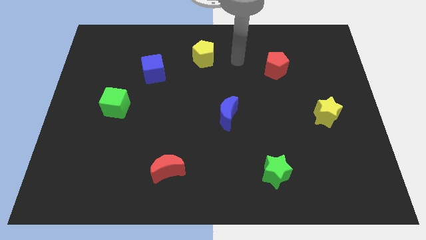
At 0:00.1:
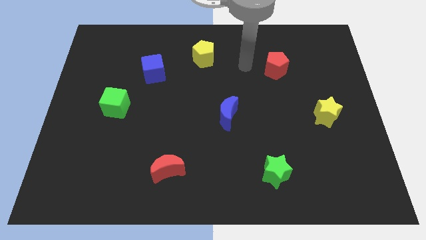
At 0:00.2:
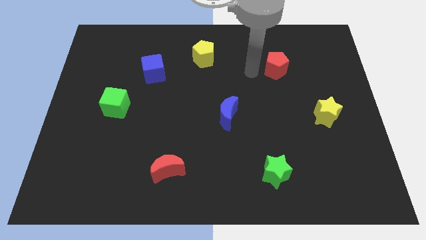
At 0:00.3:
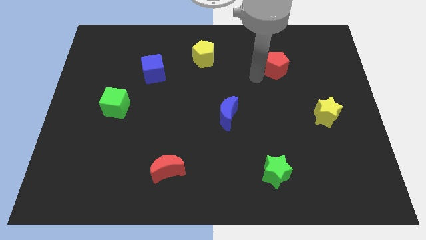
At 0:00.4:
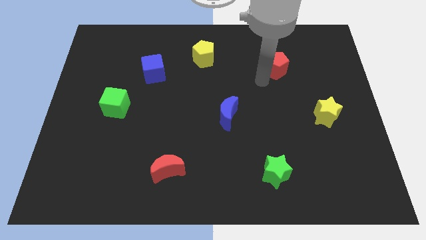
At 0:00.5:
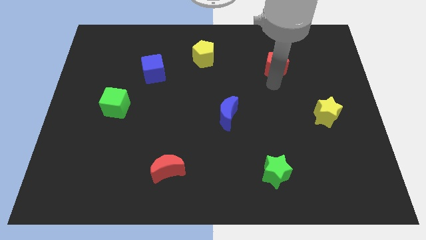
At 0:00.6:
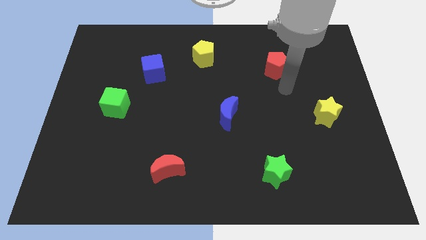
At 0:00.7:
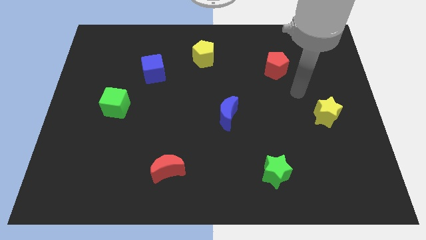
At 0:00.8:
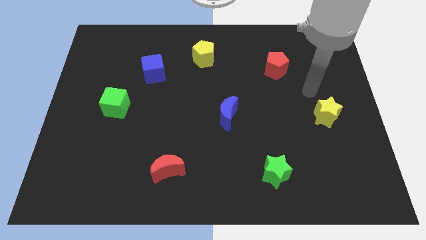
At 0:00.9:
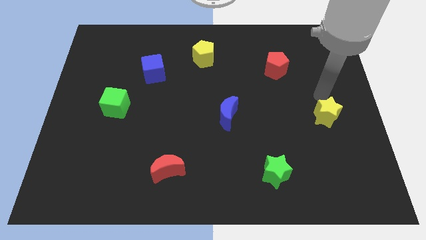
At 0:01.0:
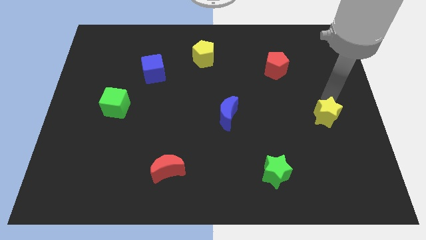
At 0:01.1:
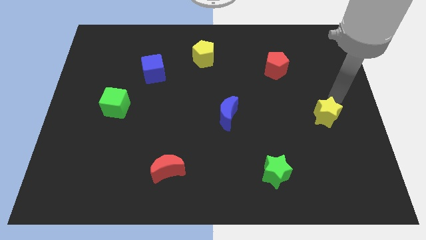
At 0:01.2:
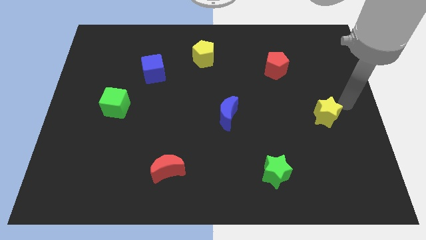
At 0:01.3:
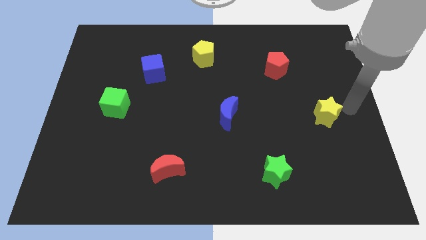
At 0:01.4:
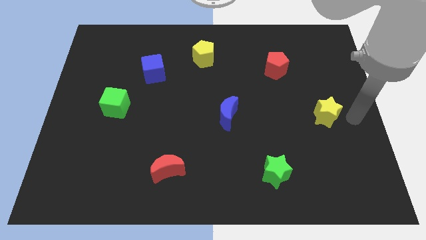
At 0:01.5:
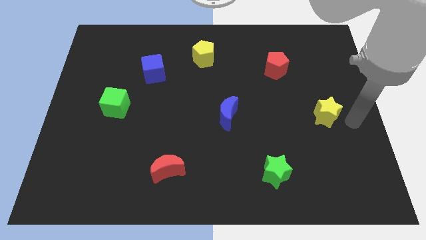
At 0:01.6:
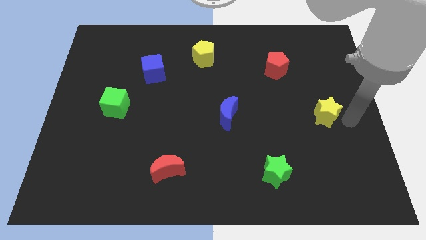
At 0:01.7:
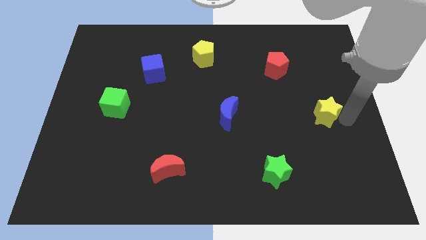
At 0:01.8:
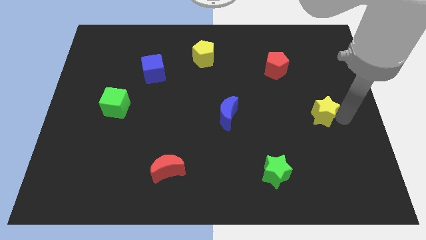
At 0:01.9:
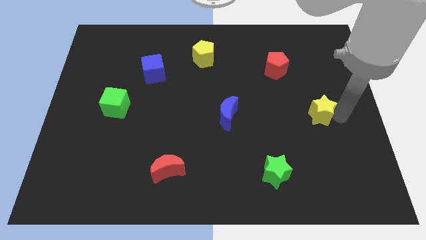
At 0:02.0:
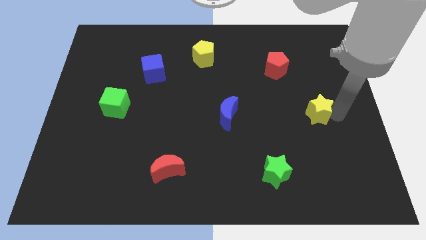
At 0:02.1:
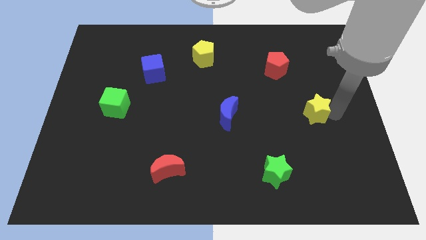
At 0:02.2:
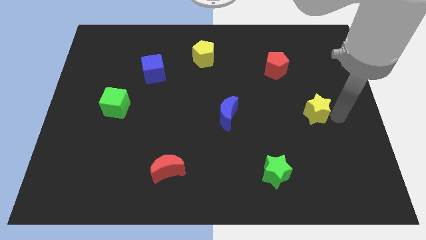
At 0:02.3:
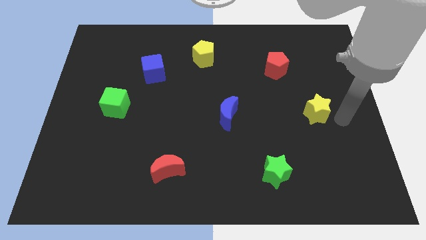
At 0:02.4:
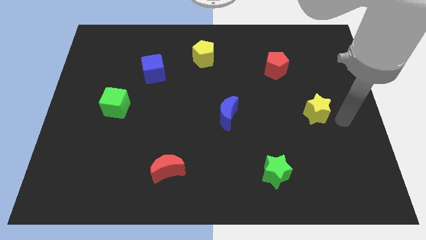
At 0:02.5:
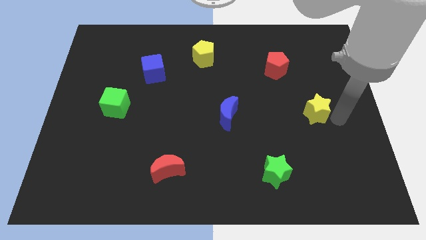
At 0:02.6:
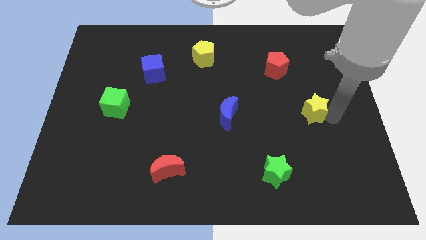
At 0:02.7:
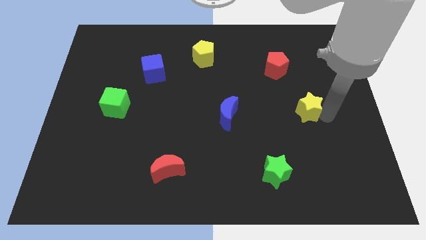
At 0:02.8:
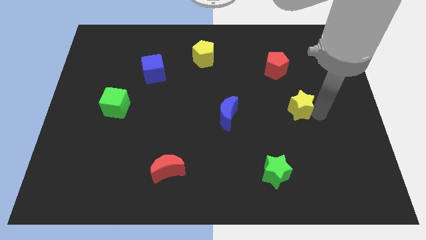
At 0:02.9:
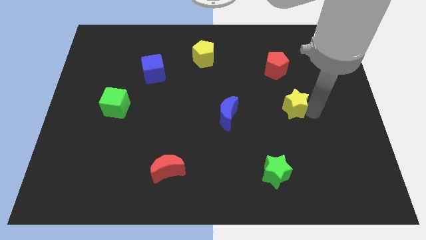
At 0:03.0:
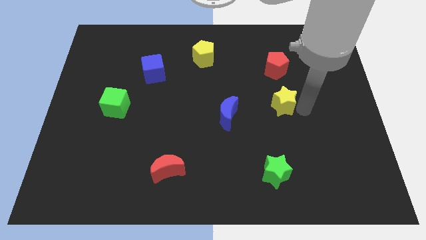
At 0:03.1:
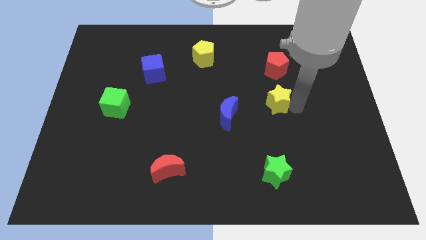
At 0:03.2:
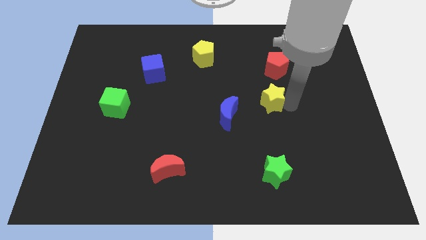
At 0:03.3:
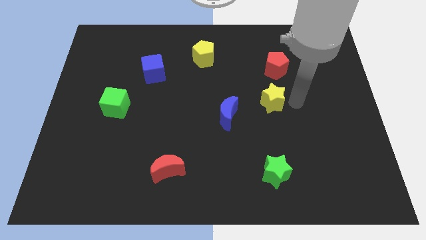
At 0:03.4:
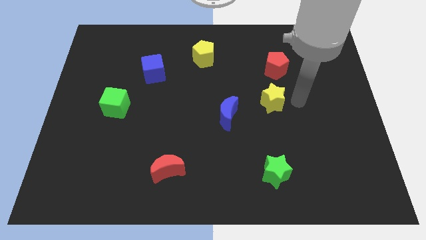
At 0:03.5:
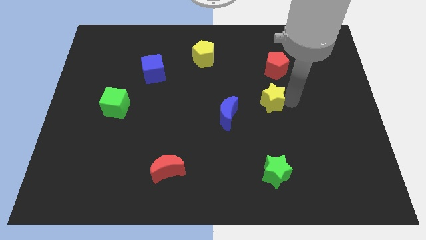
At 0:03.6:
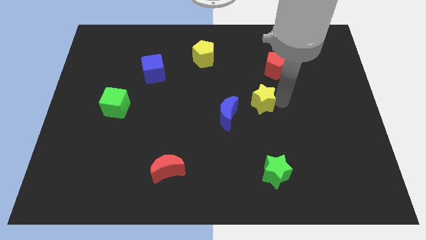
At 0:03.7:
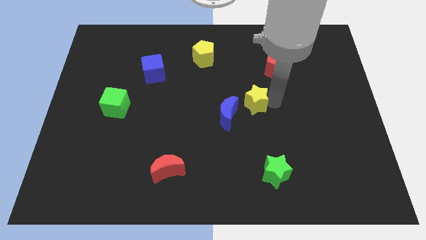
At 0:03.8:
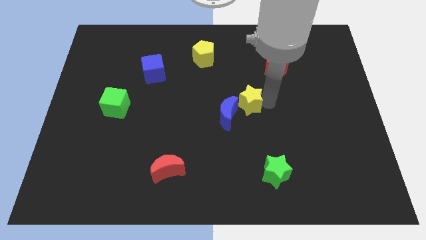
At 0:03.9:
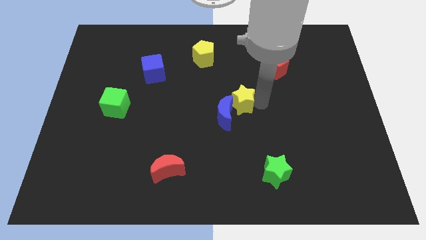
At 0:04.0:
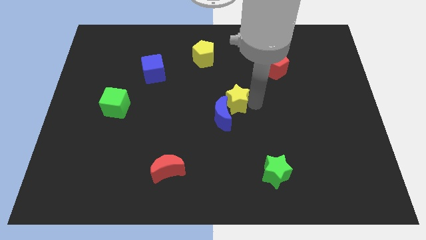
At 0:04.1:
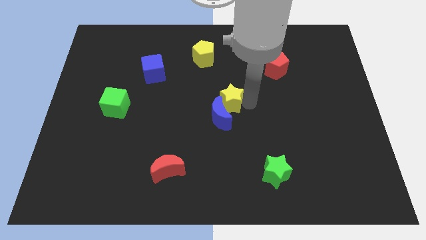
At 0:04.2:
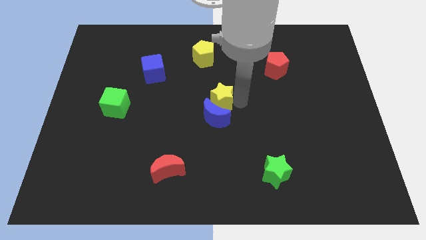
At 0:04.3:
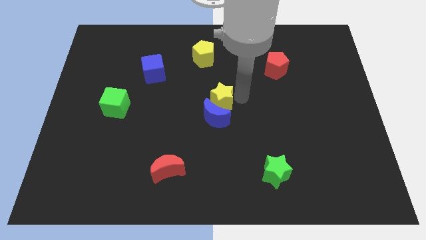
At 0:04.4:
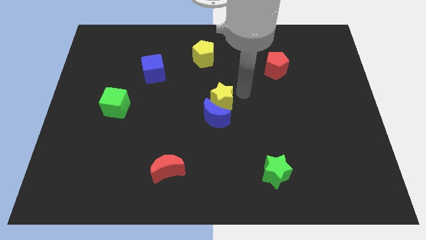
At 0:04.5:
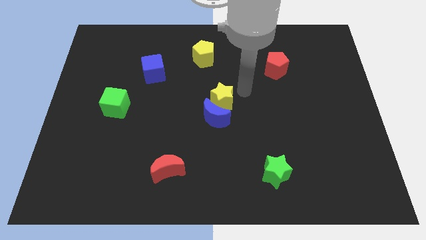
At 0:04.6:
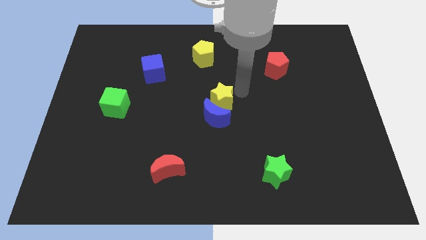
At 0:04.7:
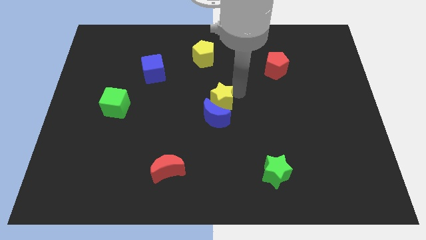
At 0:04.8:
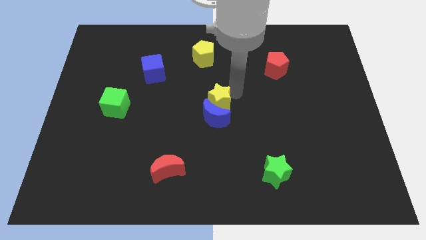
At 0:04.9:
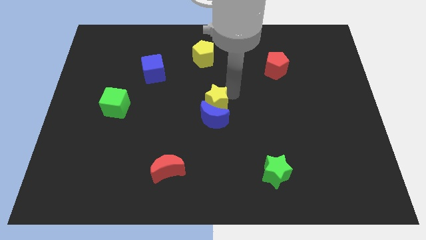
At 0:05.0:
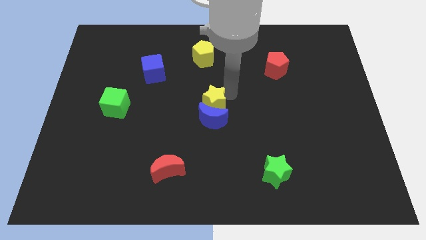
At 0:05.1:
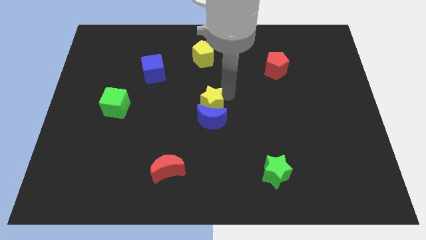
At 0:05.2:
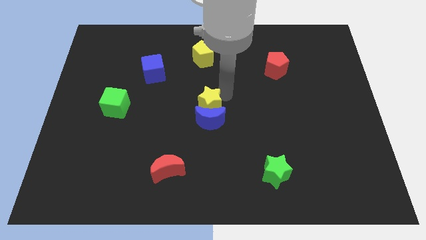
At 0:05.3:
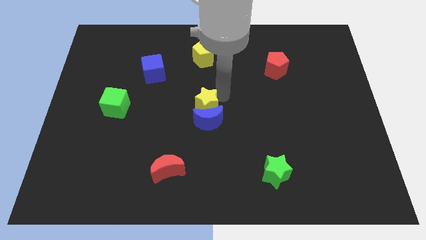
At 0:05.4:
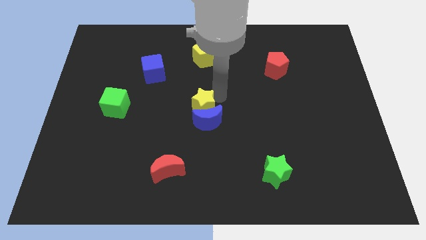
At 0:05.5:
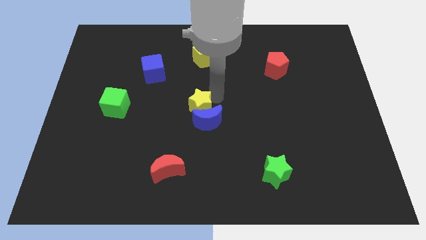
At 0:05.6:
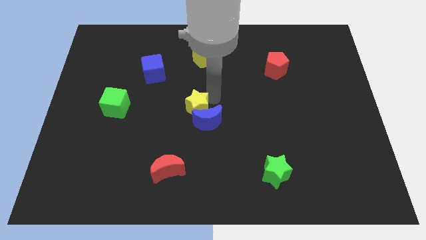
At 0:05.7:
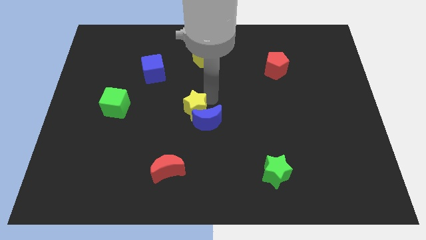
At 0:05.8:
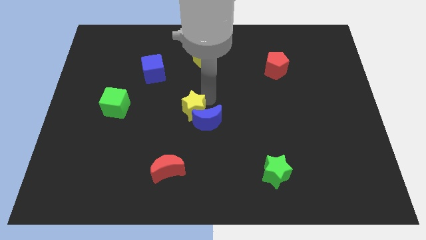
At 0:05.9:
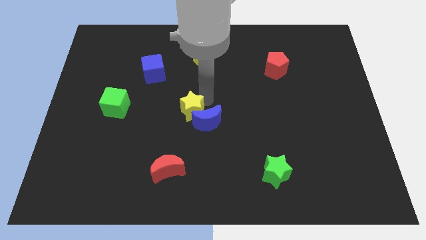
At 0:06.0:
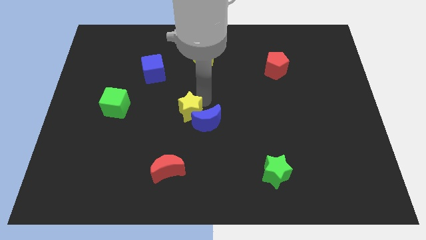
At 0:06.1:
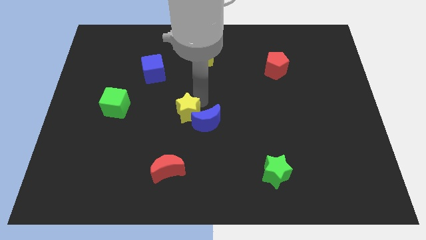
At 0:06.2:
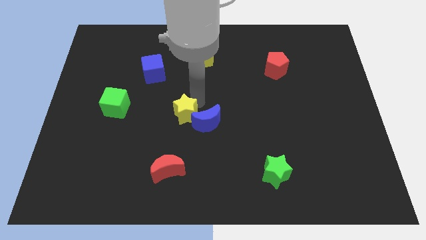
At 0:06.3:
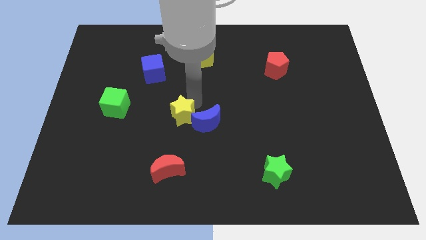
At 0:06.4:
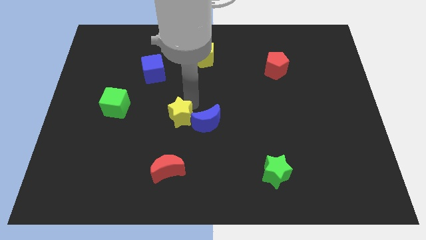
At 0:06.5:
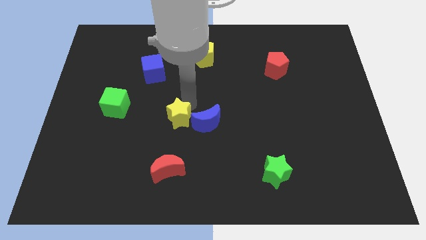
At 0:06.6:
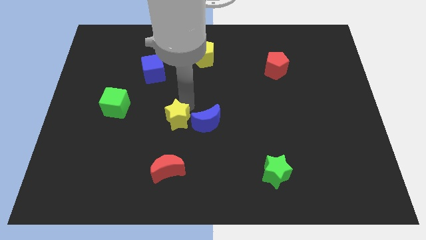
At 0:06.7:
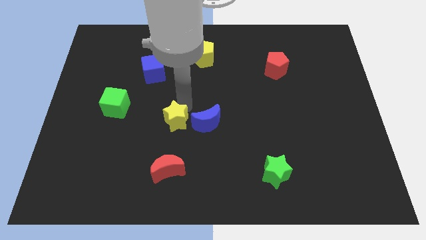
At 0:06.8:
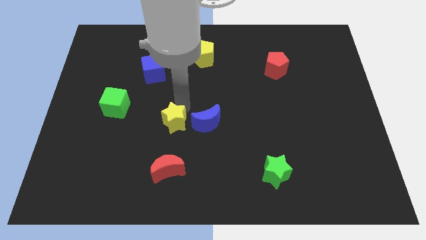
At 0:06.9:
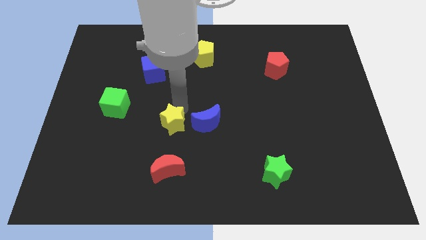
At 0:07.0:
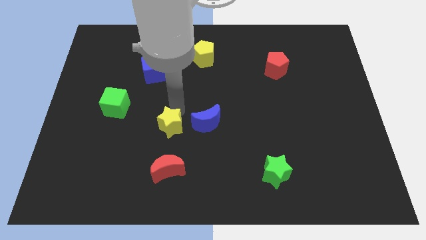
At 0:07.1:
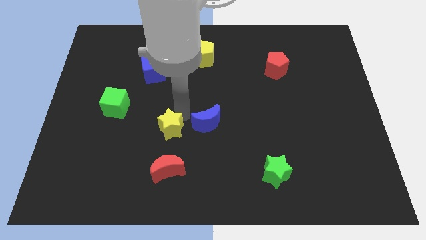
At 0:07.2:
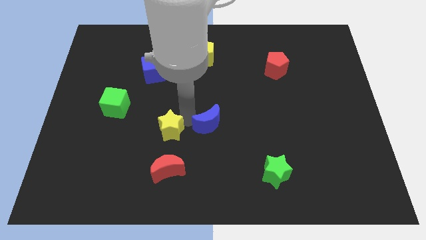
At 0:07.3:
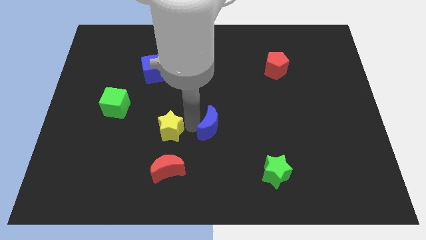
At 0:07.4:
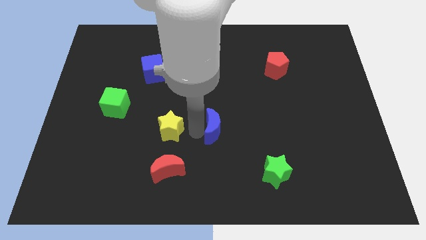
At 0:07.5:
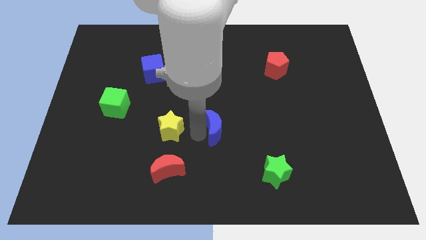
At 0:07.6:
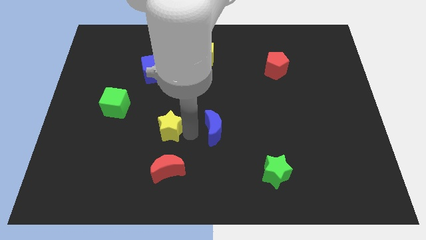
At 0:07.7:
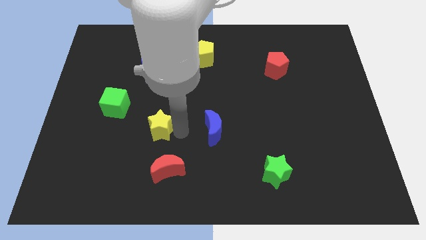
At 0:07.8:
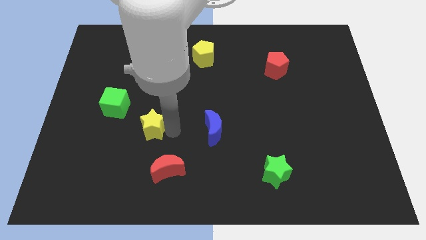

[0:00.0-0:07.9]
move the yellow star to the bottom right side of the green cube

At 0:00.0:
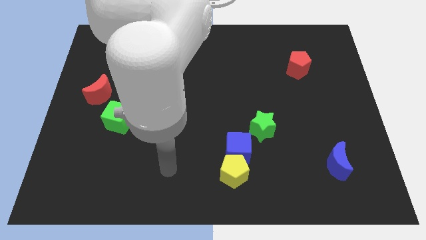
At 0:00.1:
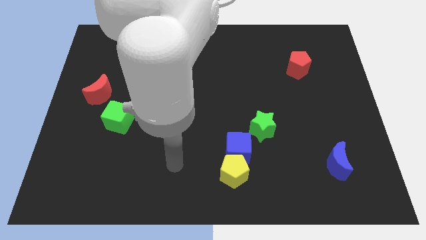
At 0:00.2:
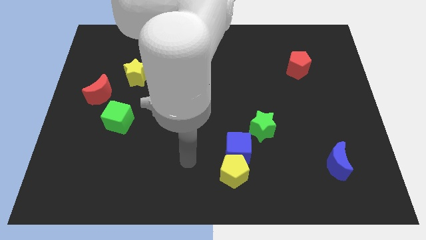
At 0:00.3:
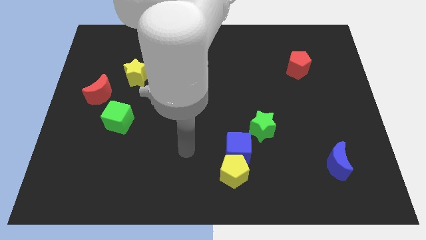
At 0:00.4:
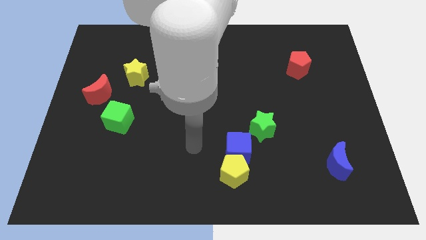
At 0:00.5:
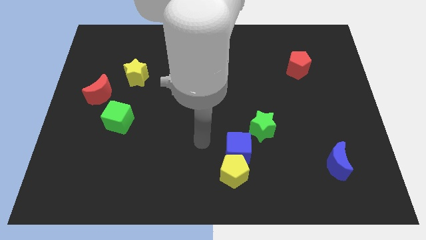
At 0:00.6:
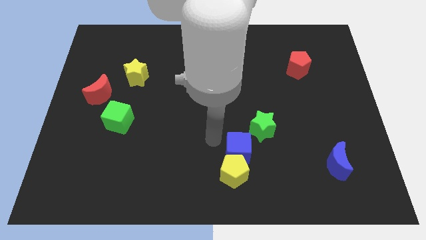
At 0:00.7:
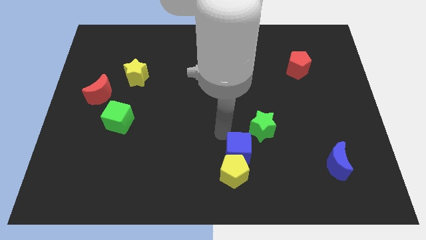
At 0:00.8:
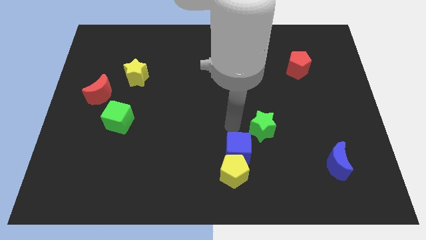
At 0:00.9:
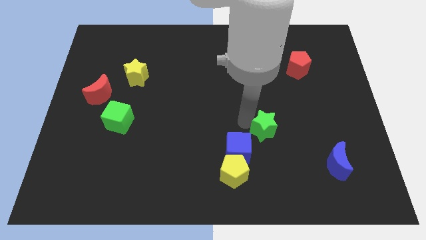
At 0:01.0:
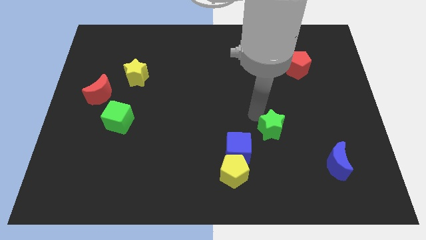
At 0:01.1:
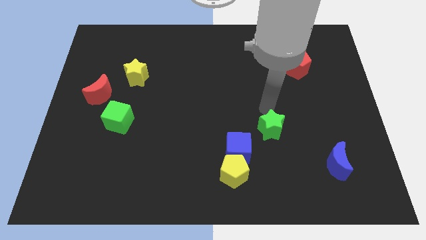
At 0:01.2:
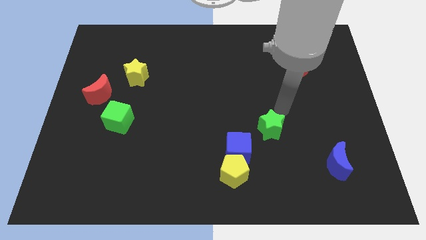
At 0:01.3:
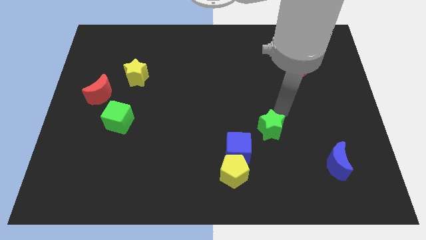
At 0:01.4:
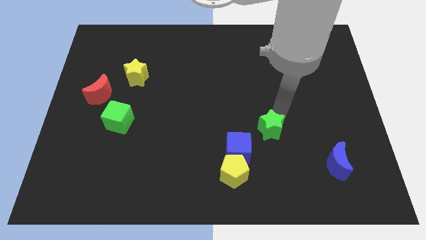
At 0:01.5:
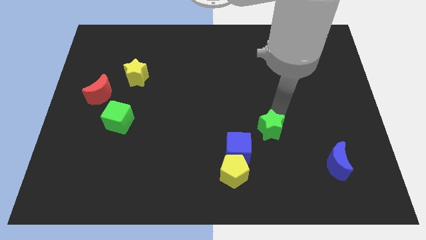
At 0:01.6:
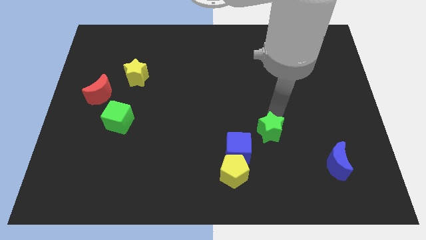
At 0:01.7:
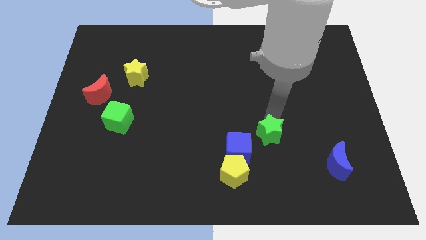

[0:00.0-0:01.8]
push the green star to the top right of the yellow pentagon
